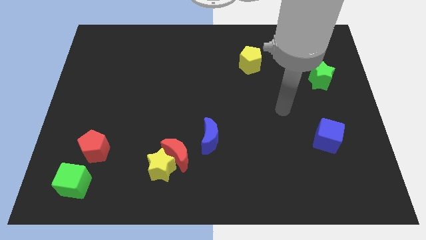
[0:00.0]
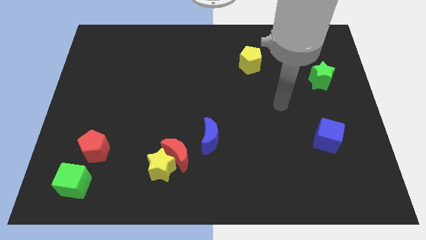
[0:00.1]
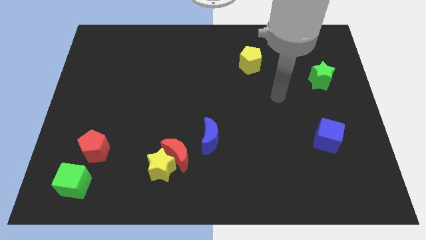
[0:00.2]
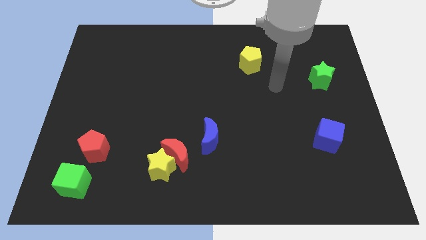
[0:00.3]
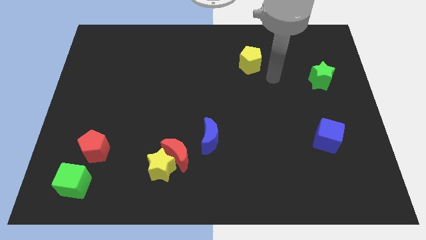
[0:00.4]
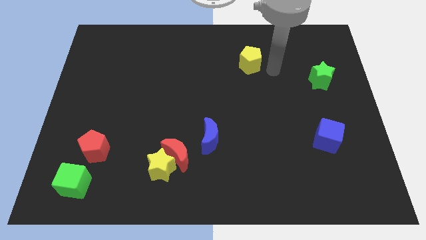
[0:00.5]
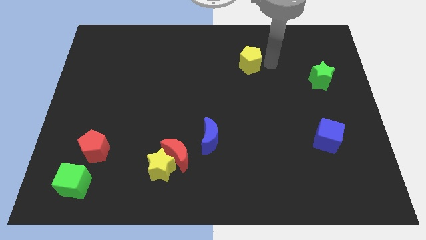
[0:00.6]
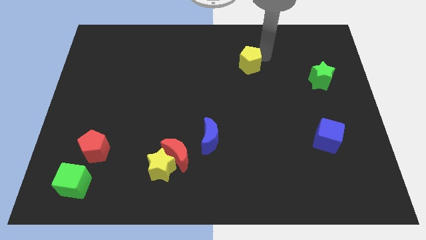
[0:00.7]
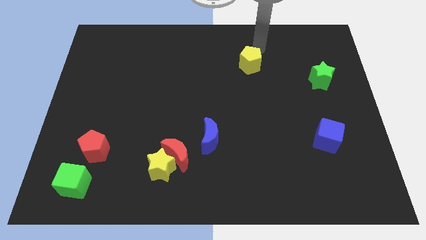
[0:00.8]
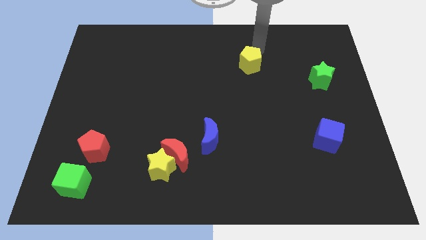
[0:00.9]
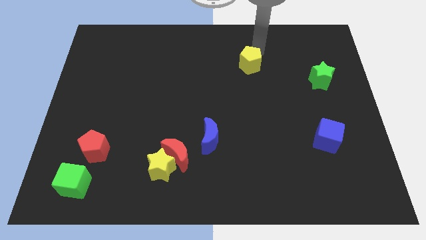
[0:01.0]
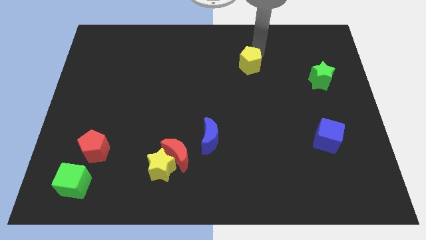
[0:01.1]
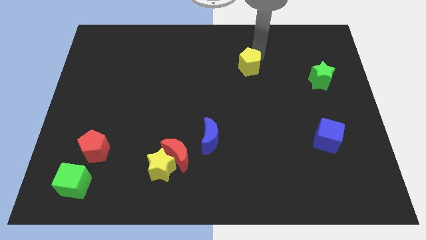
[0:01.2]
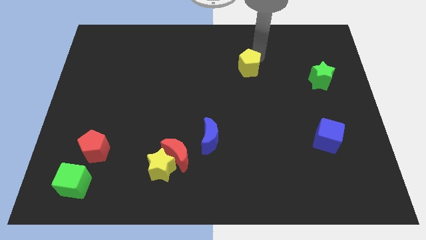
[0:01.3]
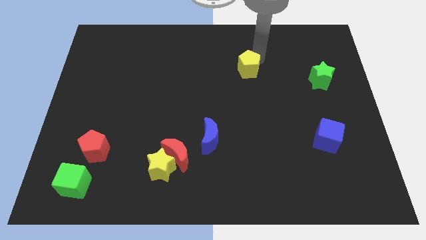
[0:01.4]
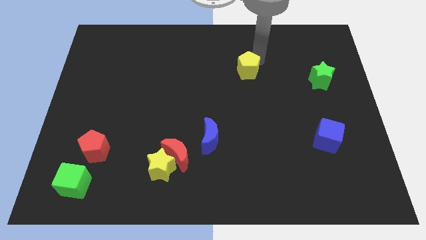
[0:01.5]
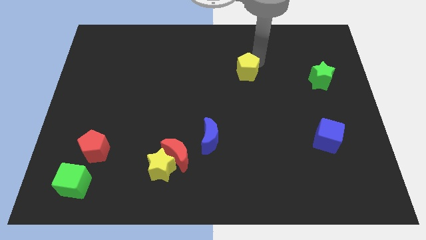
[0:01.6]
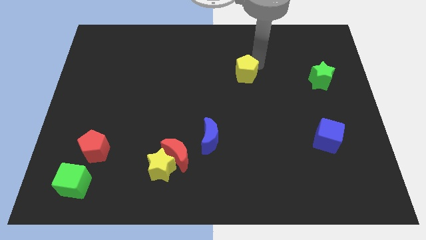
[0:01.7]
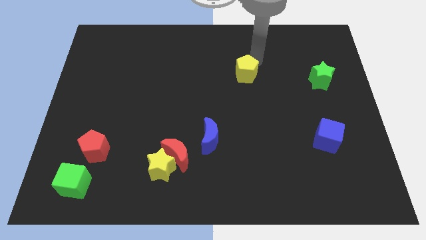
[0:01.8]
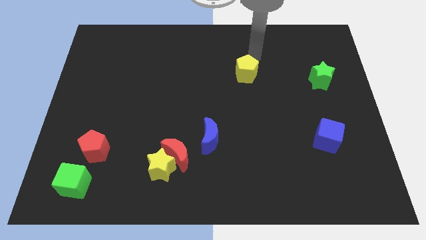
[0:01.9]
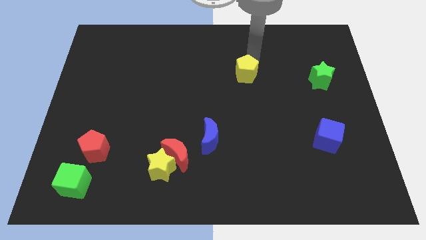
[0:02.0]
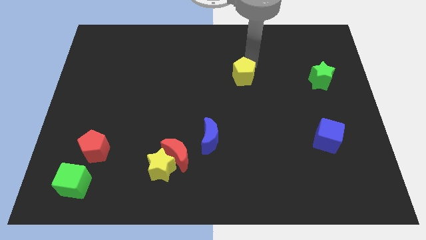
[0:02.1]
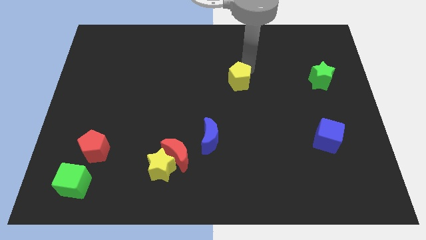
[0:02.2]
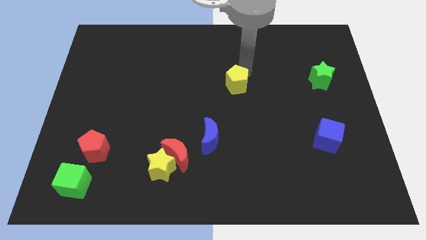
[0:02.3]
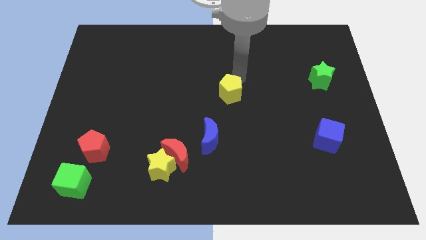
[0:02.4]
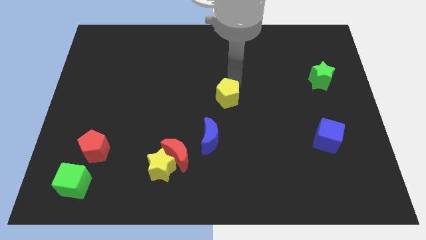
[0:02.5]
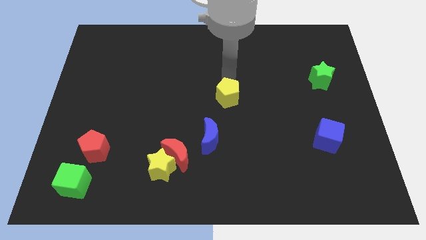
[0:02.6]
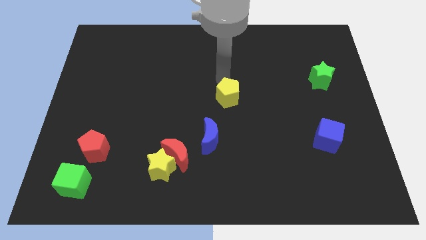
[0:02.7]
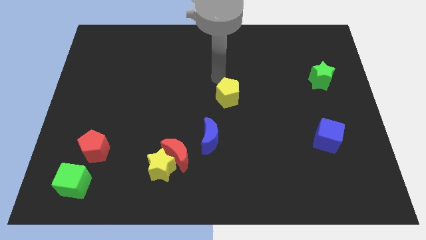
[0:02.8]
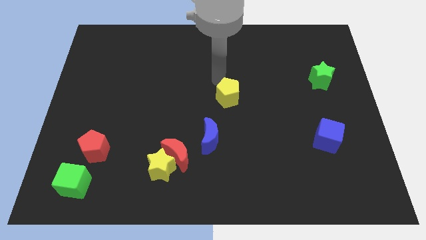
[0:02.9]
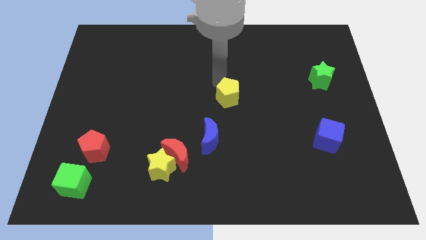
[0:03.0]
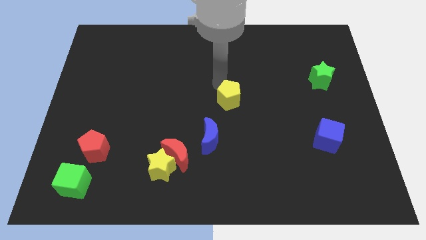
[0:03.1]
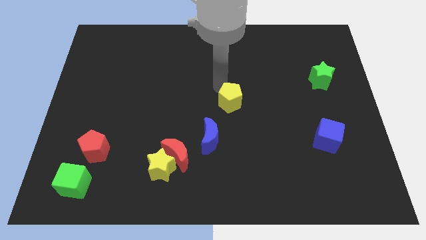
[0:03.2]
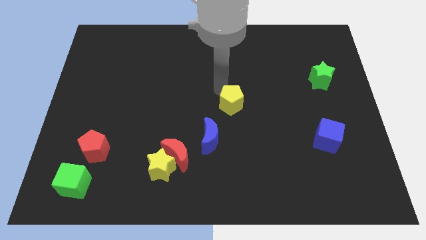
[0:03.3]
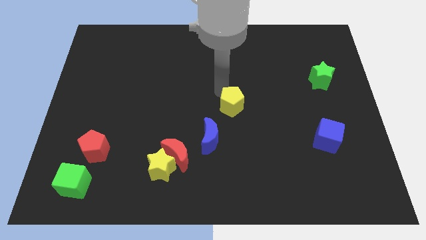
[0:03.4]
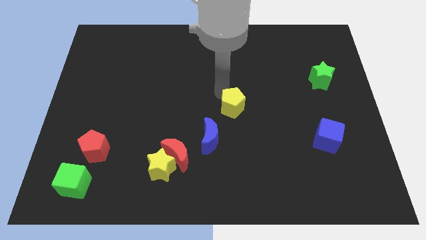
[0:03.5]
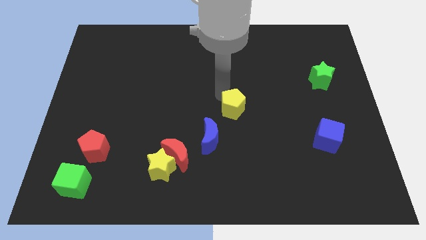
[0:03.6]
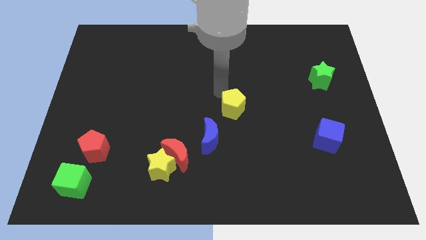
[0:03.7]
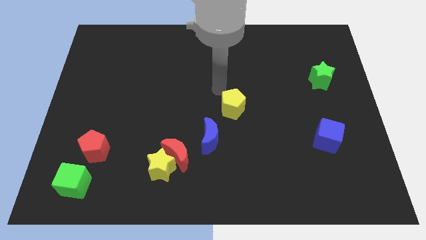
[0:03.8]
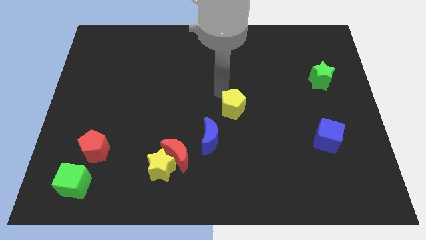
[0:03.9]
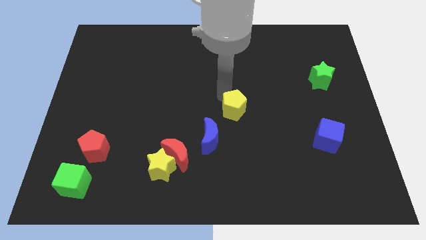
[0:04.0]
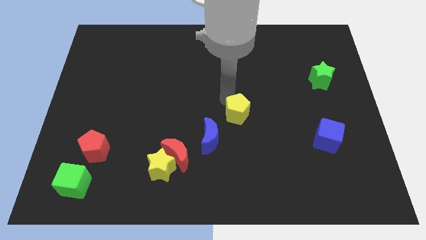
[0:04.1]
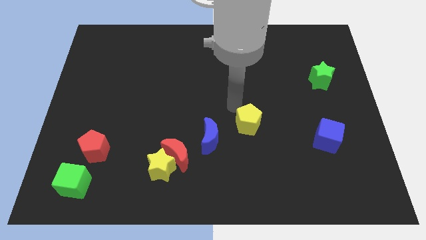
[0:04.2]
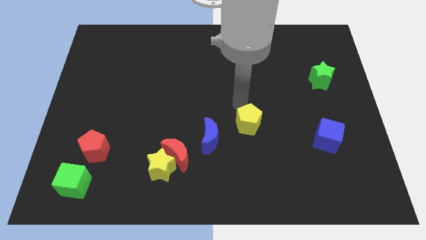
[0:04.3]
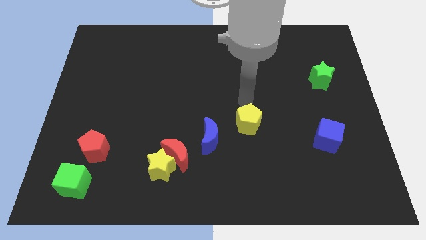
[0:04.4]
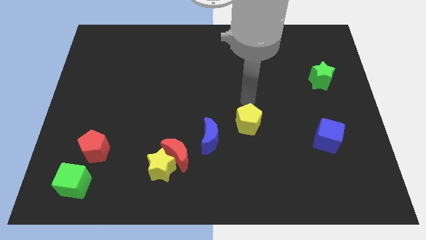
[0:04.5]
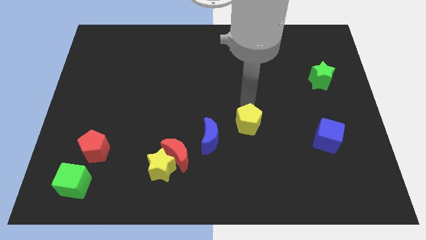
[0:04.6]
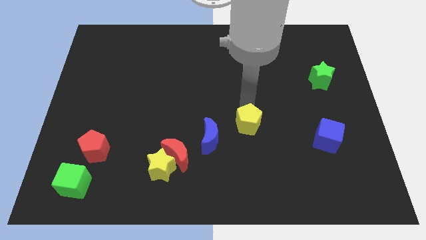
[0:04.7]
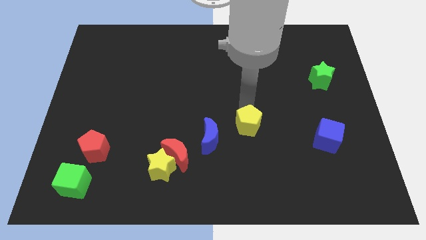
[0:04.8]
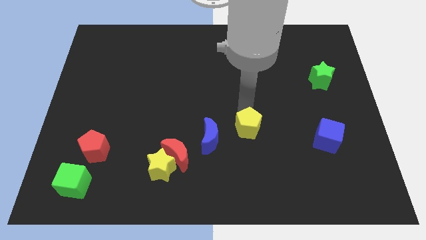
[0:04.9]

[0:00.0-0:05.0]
move the yellow pentagon down

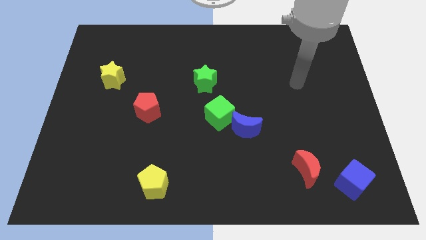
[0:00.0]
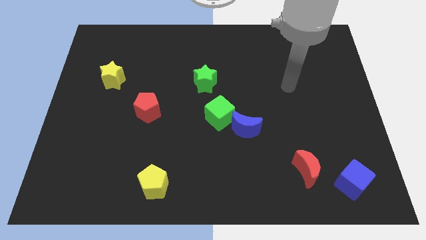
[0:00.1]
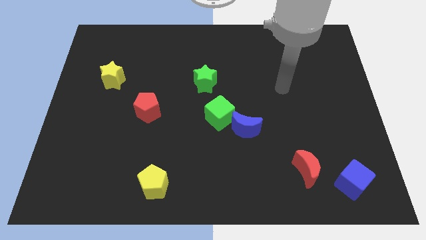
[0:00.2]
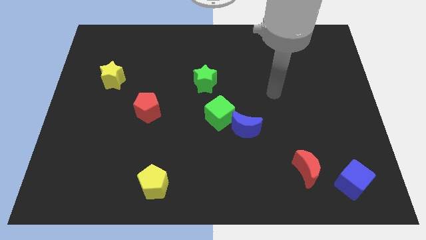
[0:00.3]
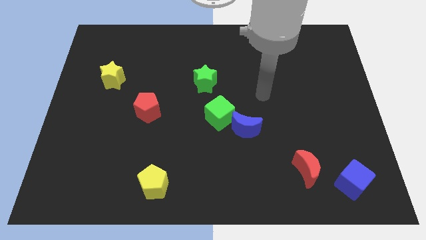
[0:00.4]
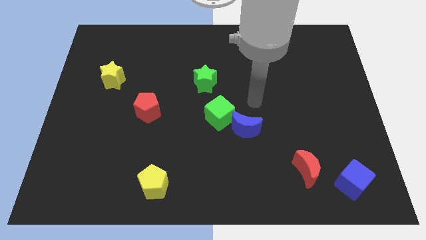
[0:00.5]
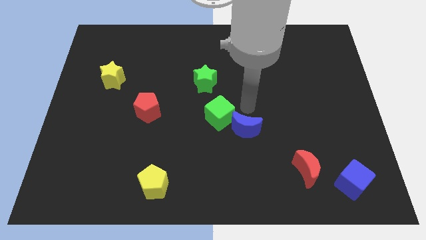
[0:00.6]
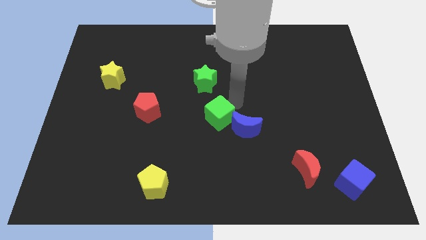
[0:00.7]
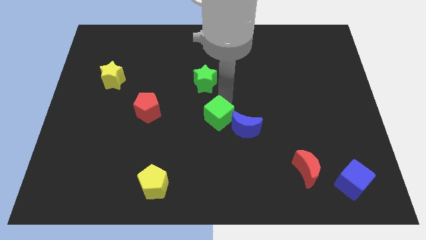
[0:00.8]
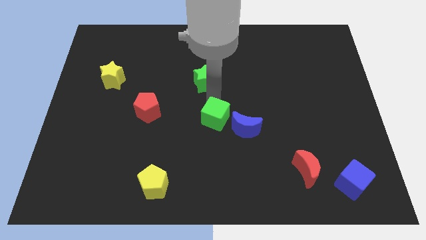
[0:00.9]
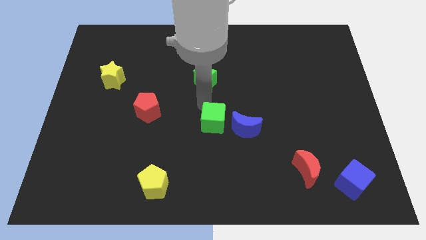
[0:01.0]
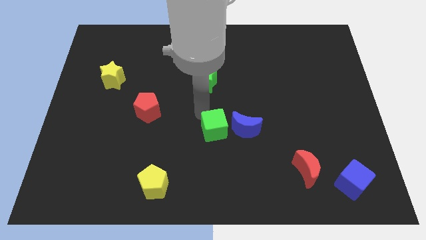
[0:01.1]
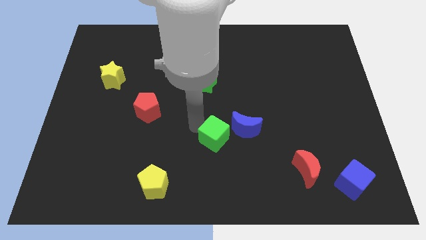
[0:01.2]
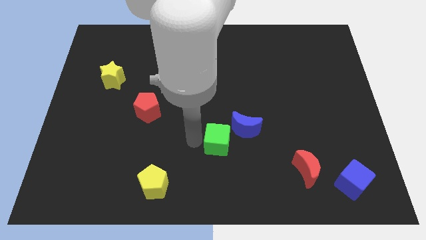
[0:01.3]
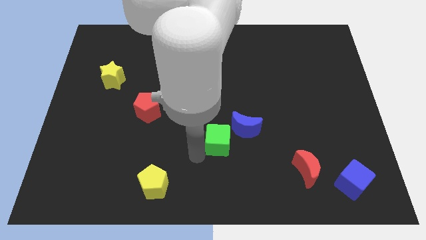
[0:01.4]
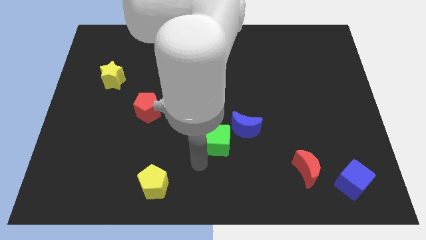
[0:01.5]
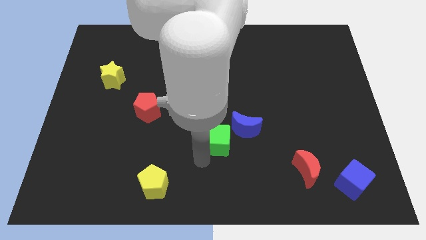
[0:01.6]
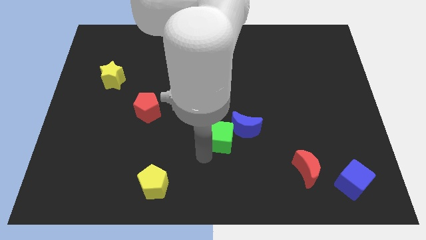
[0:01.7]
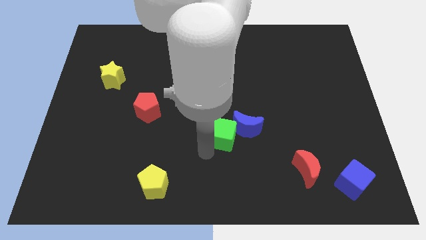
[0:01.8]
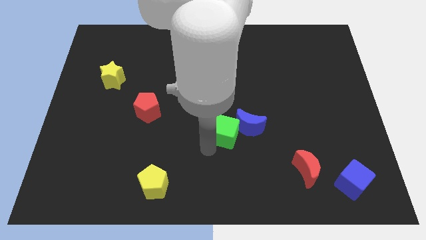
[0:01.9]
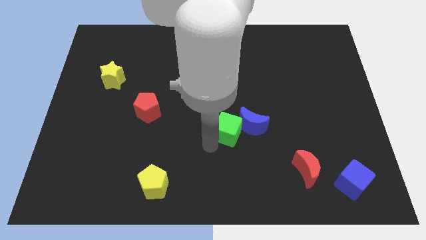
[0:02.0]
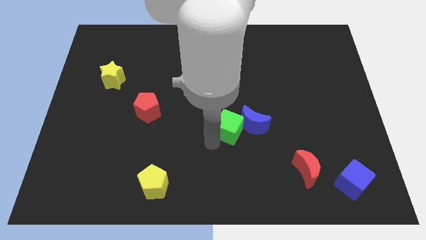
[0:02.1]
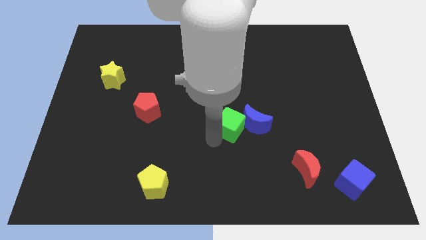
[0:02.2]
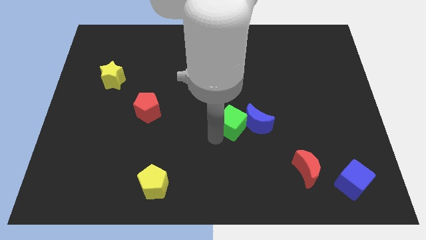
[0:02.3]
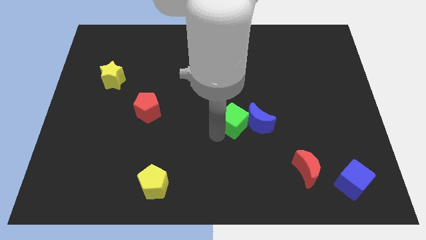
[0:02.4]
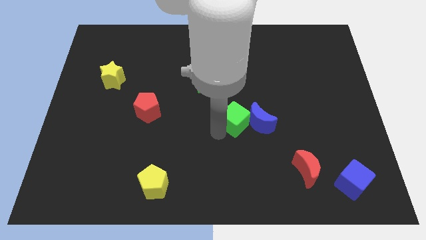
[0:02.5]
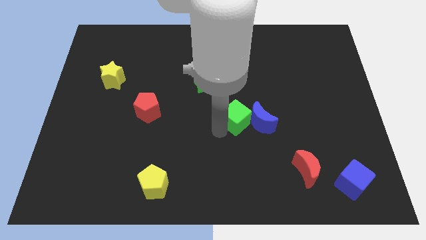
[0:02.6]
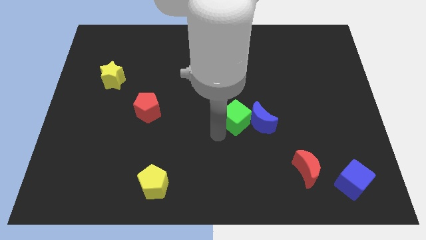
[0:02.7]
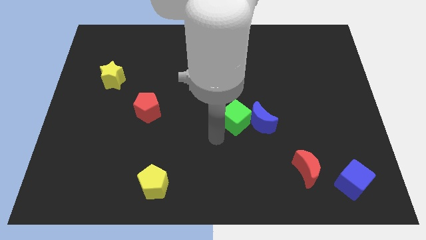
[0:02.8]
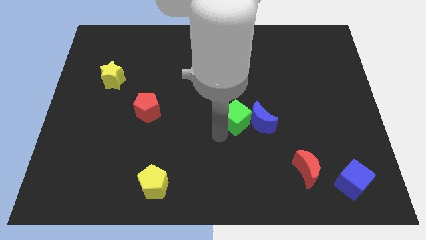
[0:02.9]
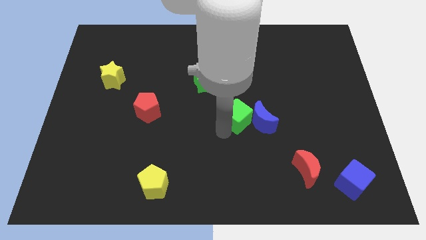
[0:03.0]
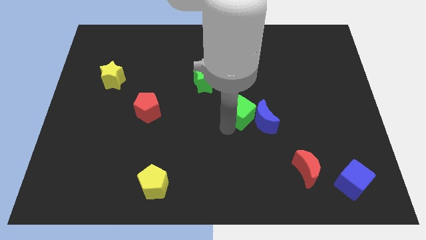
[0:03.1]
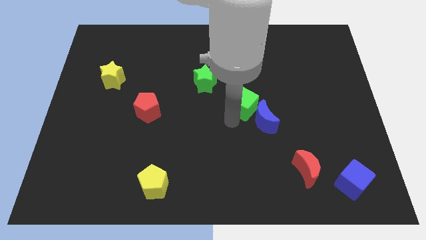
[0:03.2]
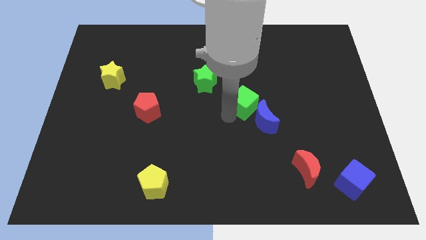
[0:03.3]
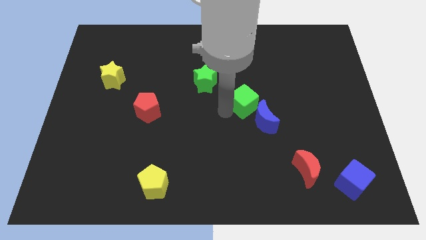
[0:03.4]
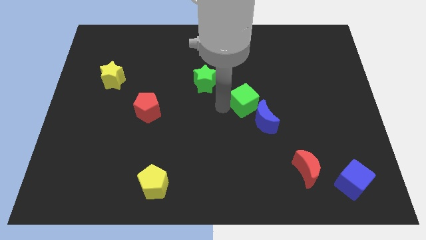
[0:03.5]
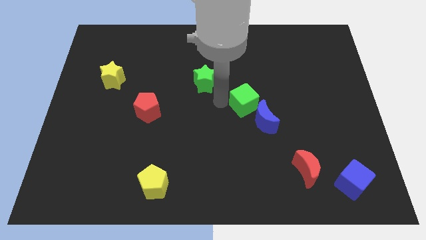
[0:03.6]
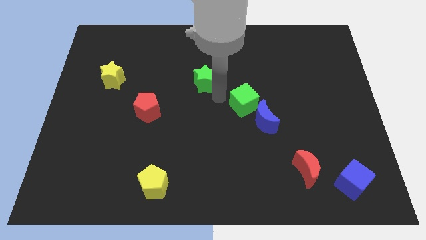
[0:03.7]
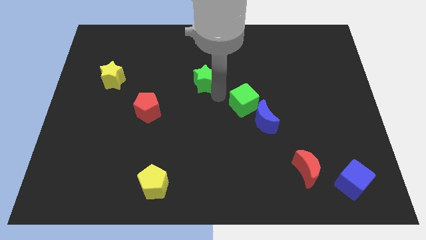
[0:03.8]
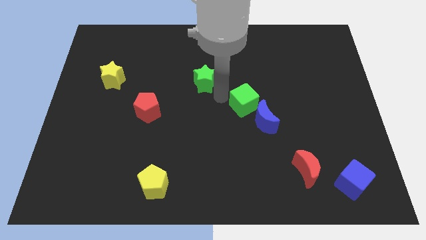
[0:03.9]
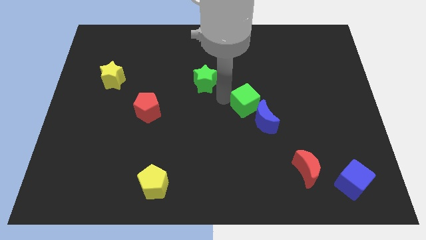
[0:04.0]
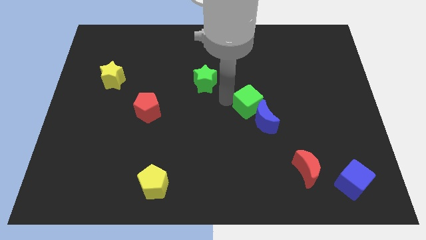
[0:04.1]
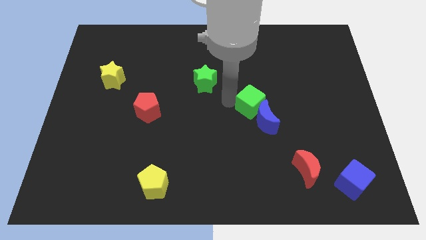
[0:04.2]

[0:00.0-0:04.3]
slightly push the green cube right
